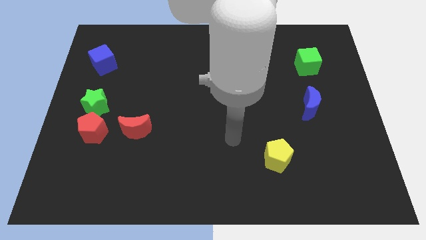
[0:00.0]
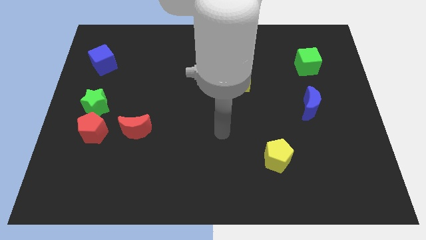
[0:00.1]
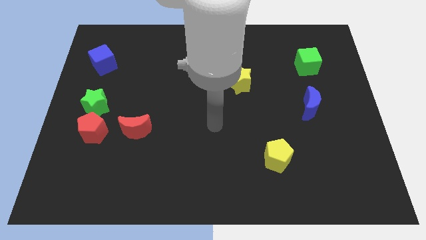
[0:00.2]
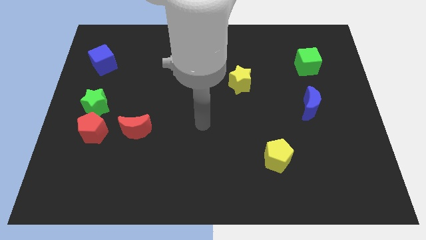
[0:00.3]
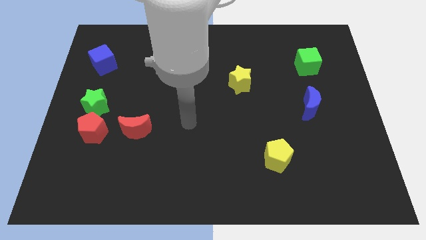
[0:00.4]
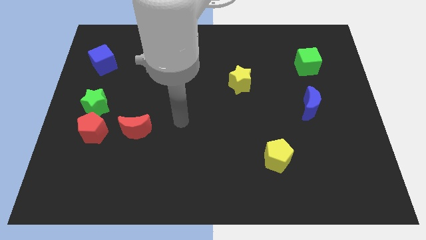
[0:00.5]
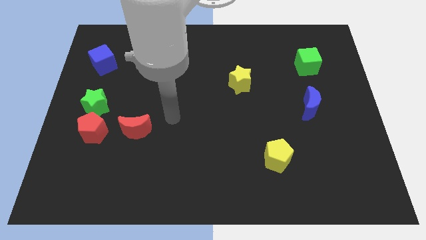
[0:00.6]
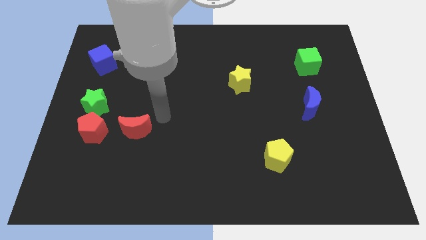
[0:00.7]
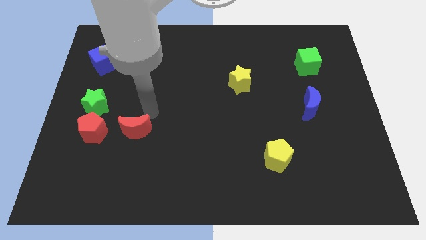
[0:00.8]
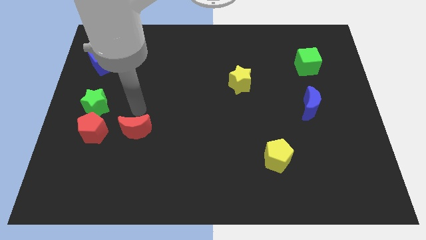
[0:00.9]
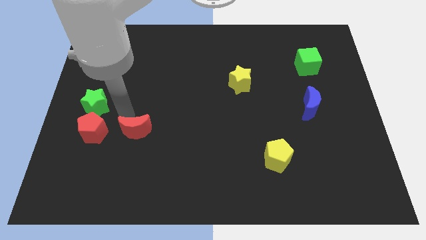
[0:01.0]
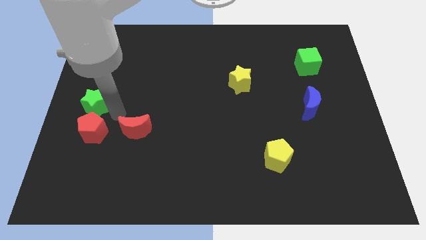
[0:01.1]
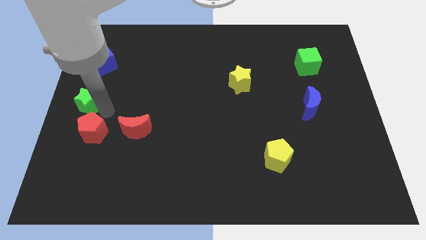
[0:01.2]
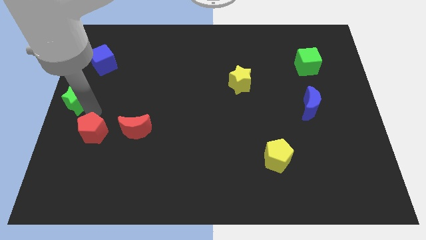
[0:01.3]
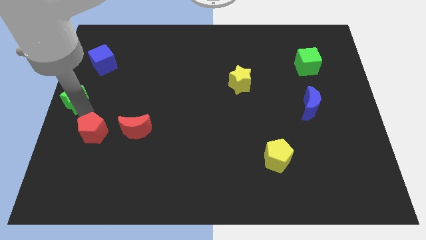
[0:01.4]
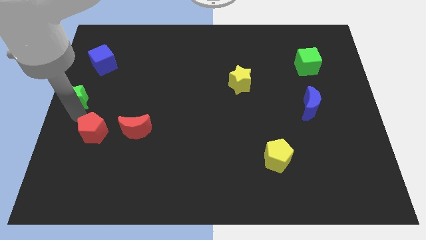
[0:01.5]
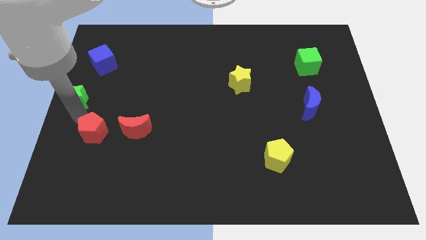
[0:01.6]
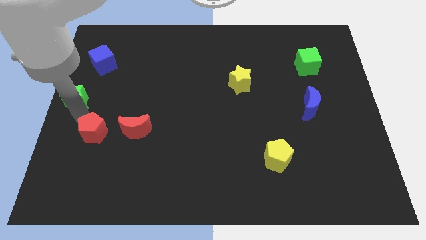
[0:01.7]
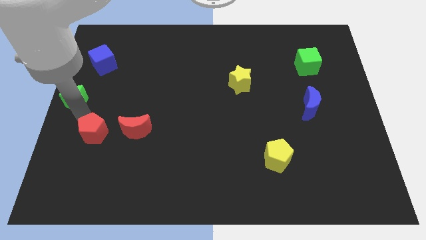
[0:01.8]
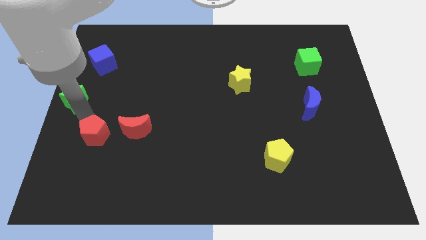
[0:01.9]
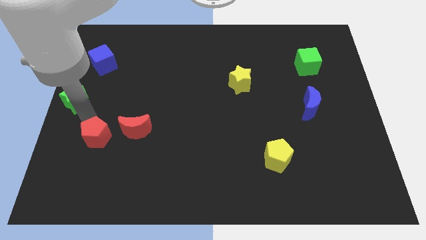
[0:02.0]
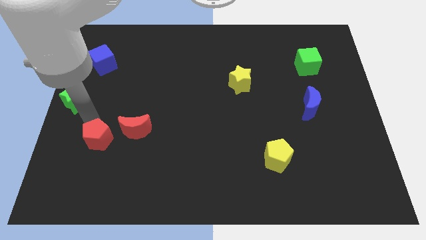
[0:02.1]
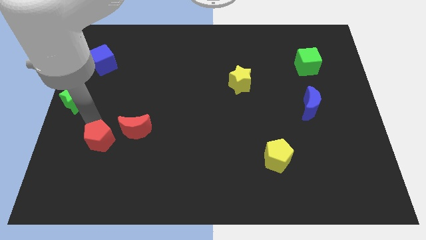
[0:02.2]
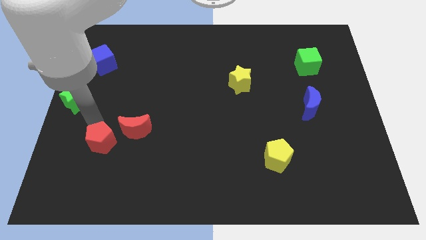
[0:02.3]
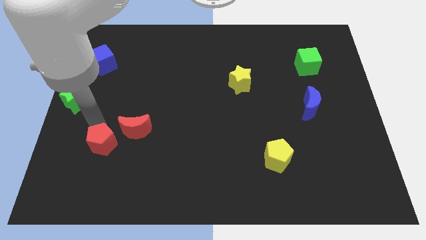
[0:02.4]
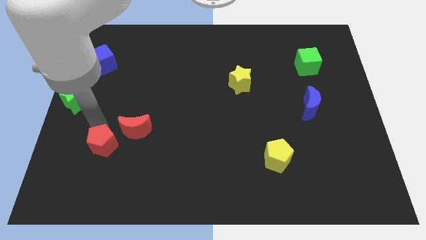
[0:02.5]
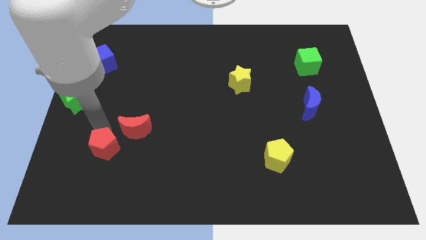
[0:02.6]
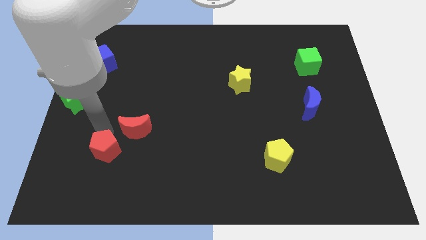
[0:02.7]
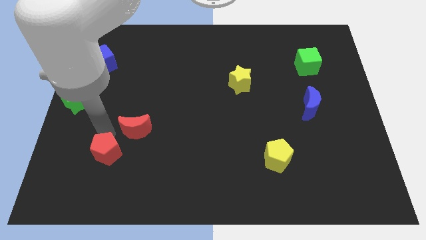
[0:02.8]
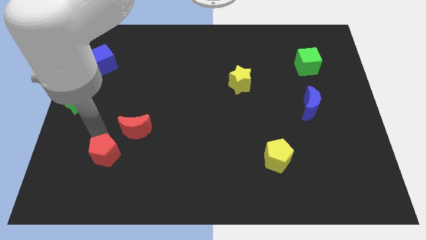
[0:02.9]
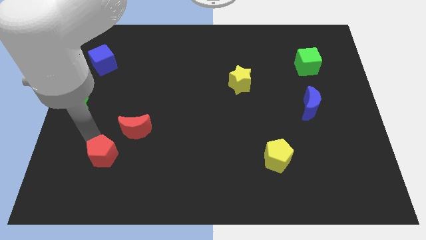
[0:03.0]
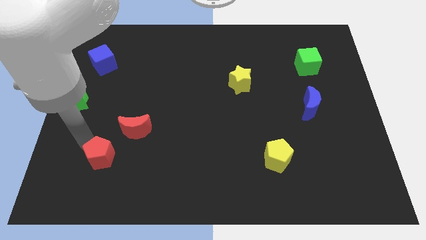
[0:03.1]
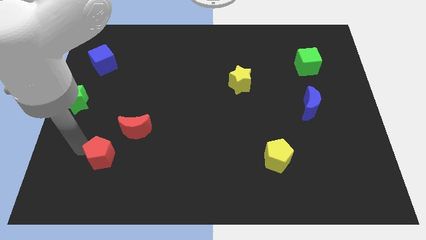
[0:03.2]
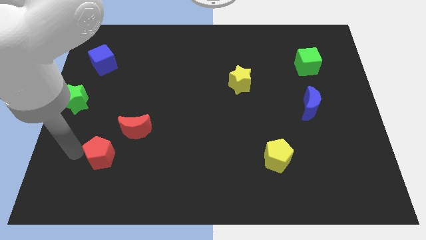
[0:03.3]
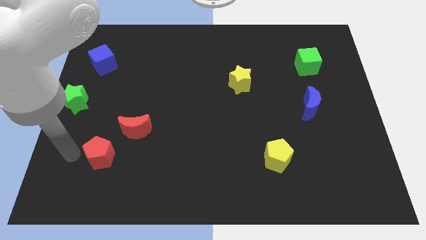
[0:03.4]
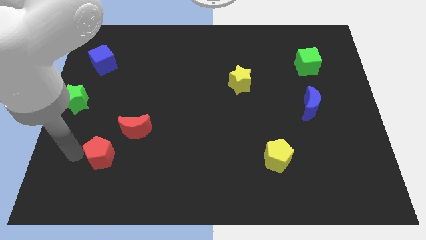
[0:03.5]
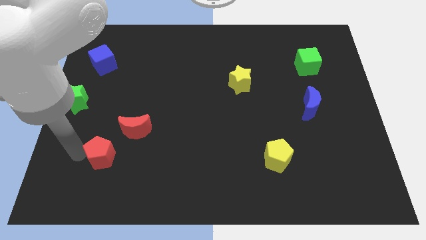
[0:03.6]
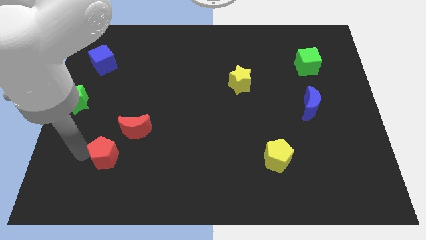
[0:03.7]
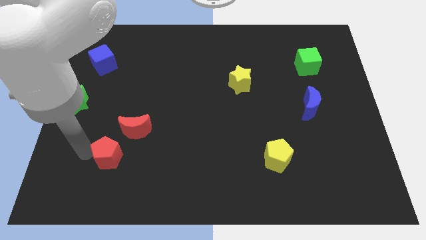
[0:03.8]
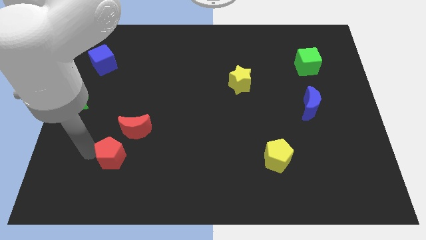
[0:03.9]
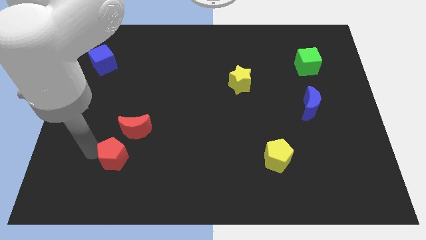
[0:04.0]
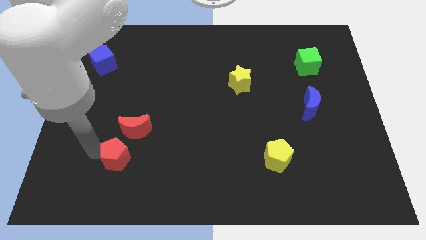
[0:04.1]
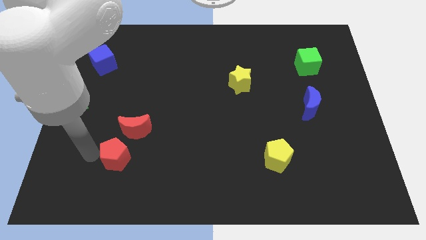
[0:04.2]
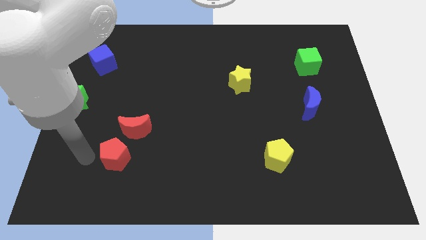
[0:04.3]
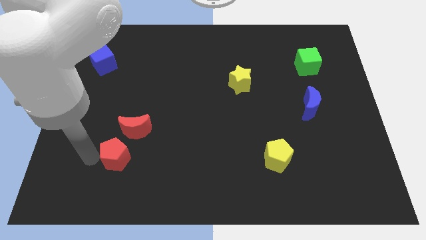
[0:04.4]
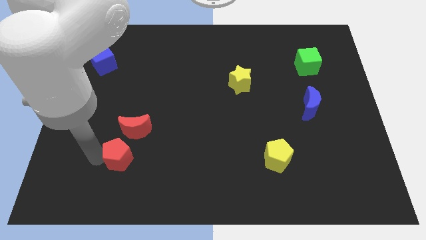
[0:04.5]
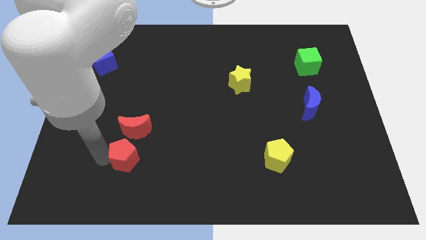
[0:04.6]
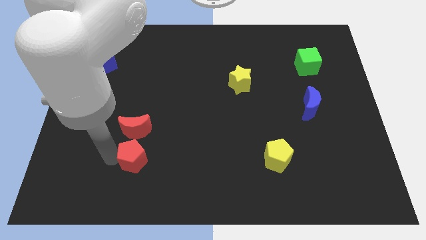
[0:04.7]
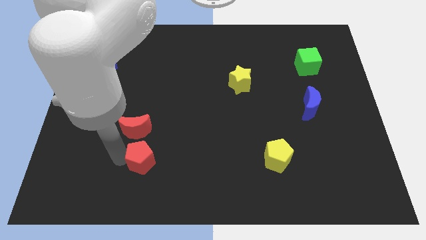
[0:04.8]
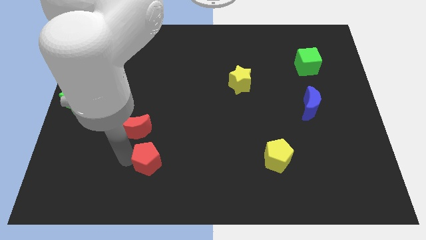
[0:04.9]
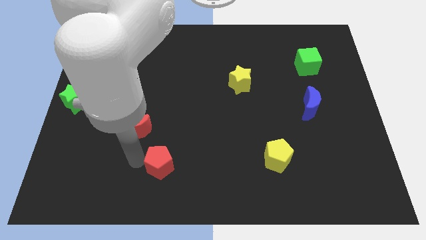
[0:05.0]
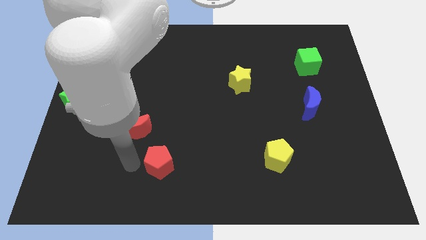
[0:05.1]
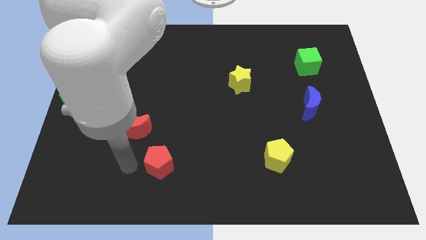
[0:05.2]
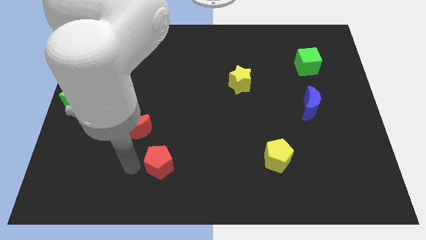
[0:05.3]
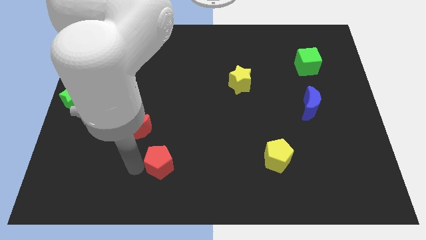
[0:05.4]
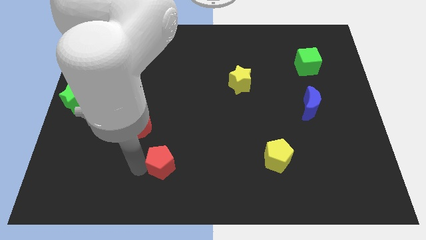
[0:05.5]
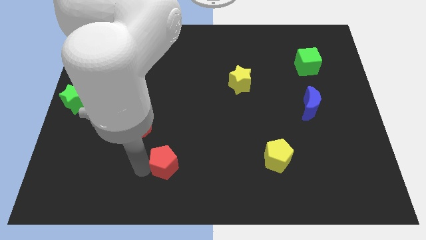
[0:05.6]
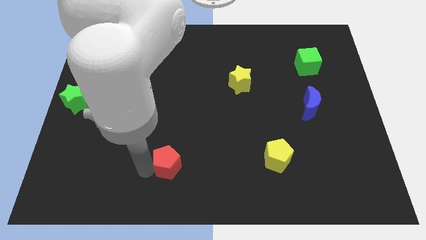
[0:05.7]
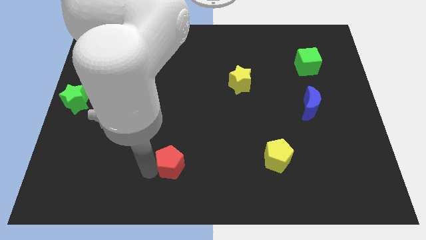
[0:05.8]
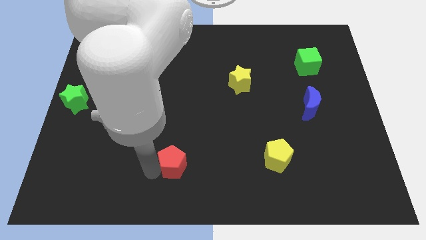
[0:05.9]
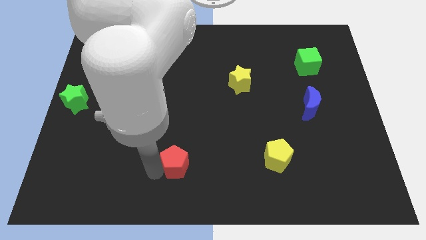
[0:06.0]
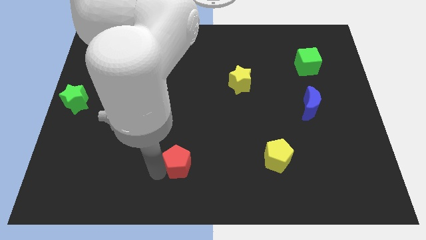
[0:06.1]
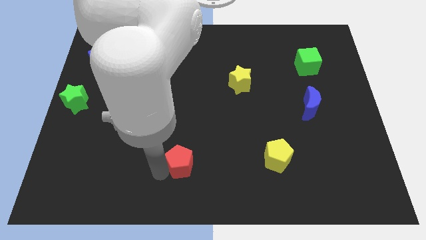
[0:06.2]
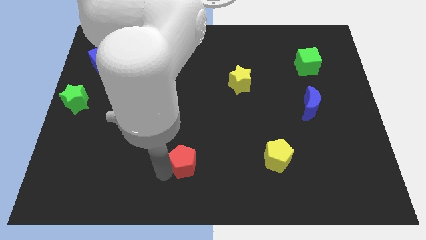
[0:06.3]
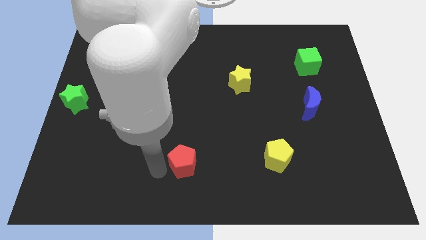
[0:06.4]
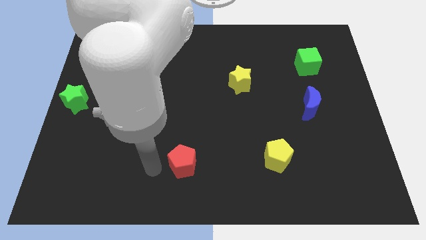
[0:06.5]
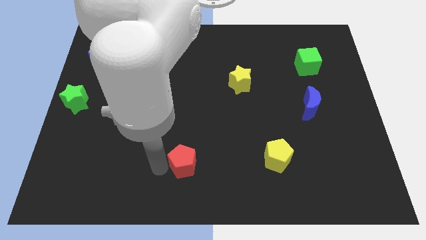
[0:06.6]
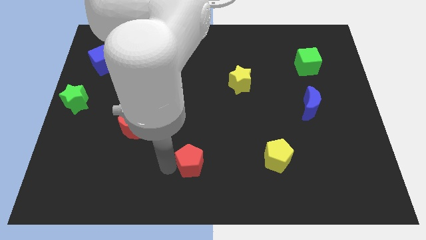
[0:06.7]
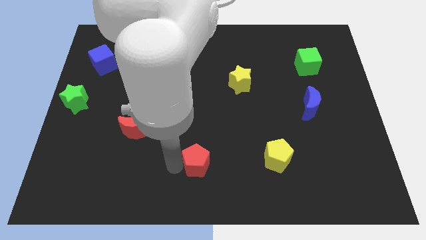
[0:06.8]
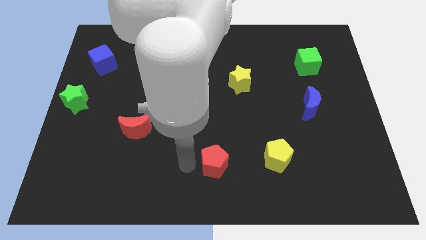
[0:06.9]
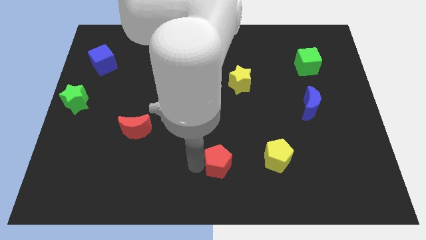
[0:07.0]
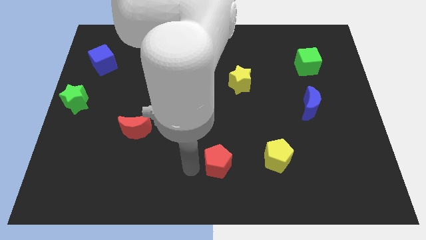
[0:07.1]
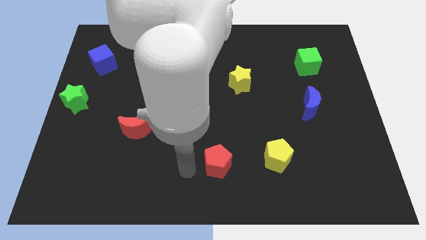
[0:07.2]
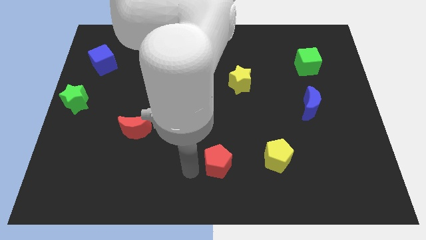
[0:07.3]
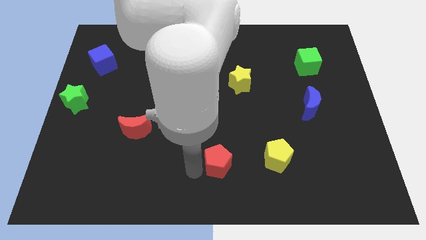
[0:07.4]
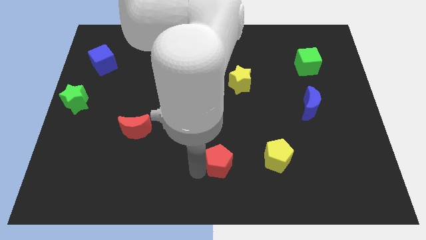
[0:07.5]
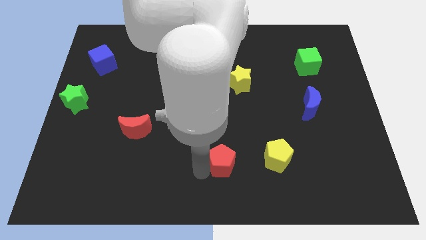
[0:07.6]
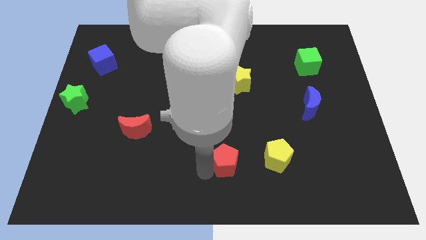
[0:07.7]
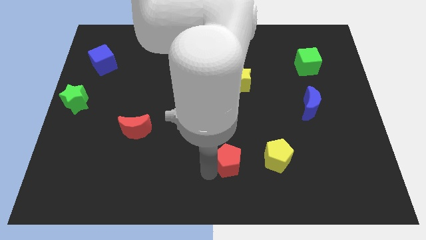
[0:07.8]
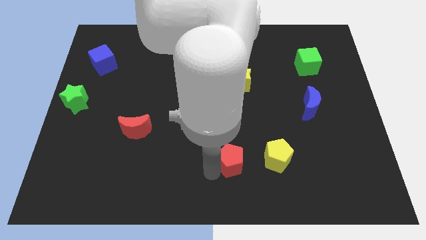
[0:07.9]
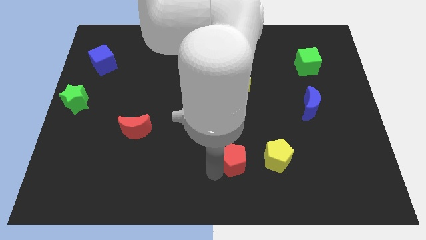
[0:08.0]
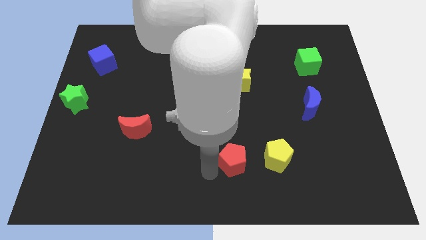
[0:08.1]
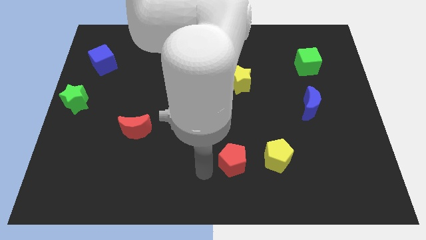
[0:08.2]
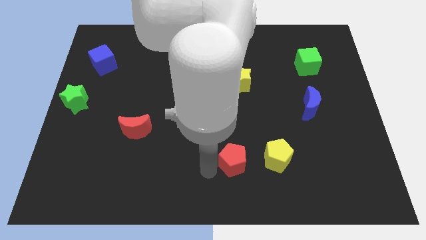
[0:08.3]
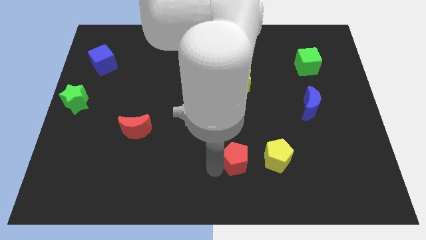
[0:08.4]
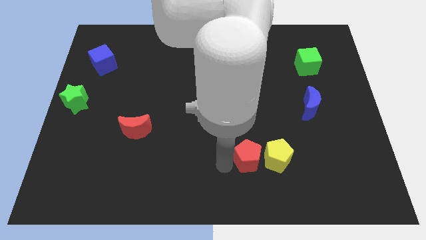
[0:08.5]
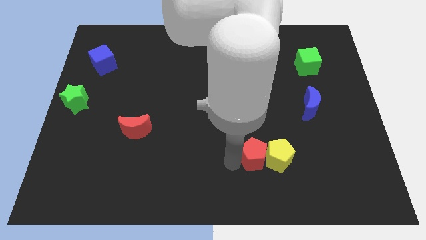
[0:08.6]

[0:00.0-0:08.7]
put the red pentagon towards the yellow pentagon
